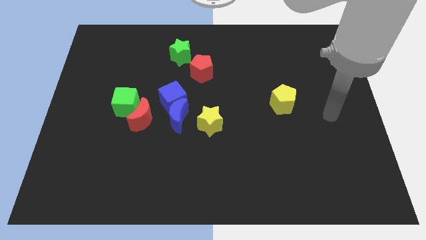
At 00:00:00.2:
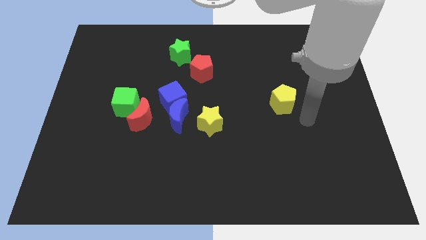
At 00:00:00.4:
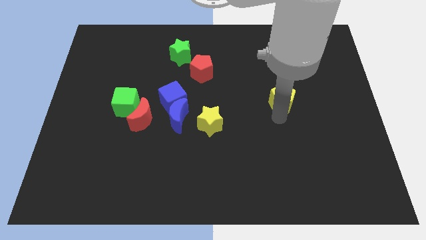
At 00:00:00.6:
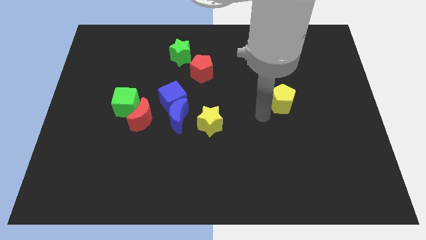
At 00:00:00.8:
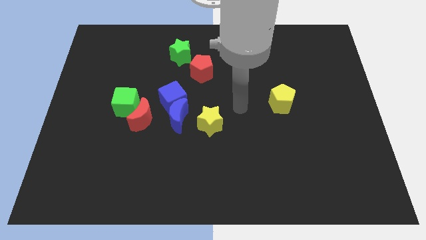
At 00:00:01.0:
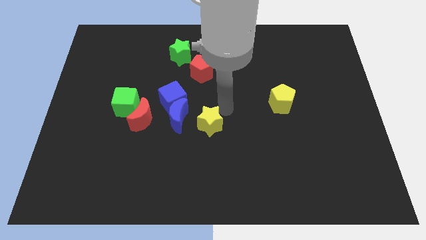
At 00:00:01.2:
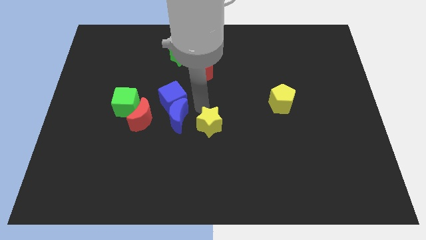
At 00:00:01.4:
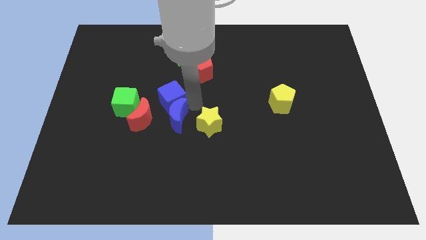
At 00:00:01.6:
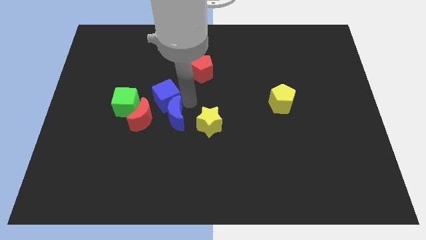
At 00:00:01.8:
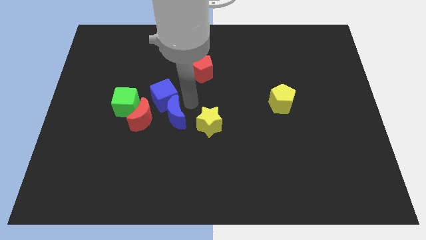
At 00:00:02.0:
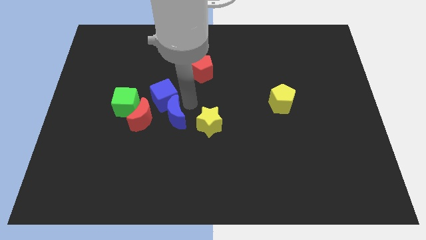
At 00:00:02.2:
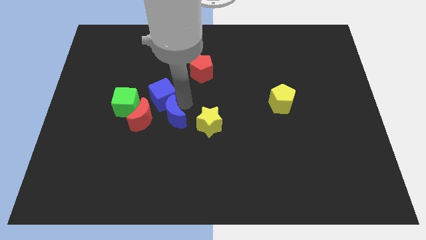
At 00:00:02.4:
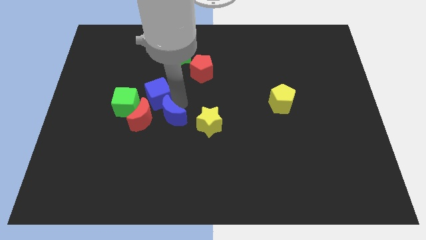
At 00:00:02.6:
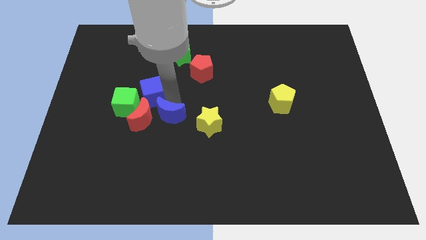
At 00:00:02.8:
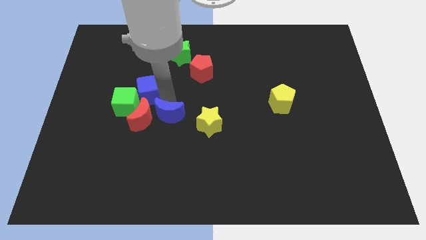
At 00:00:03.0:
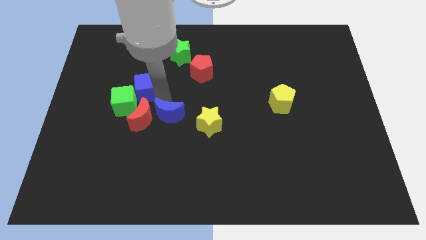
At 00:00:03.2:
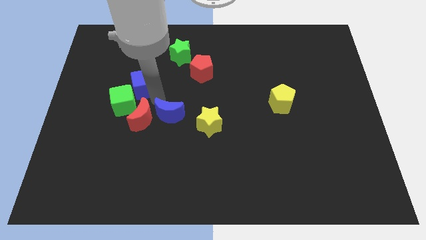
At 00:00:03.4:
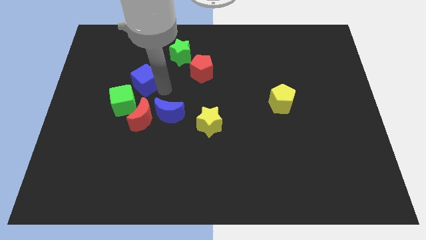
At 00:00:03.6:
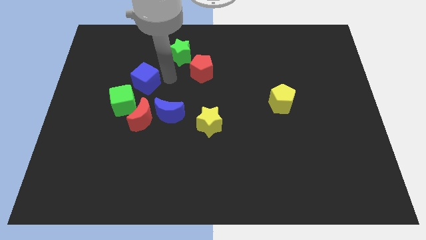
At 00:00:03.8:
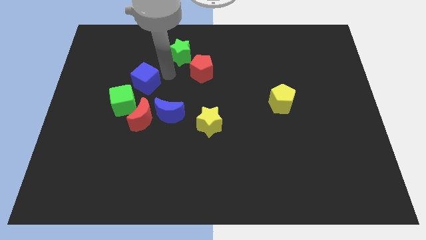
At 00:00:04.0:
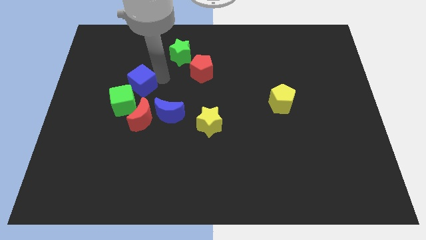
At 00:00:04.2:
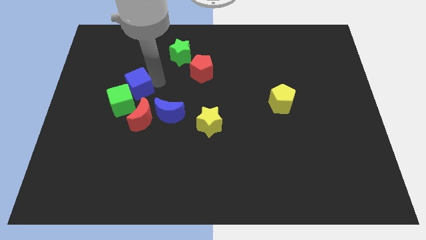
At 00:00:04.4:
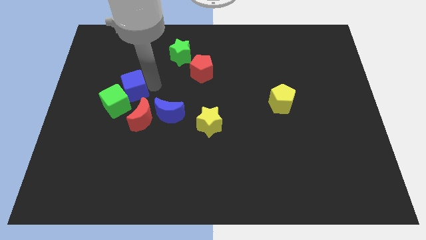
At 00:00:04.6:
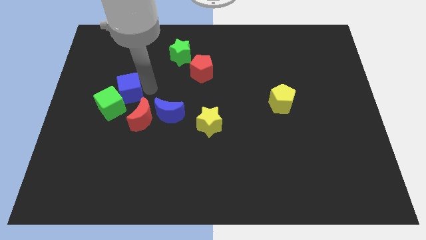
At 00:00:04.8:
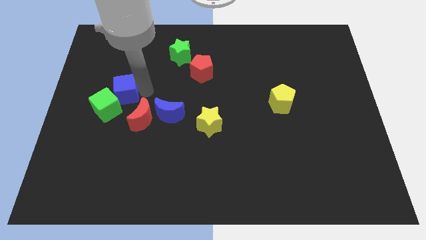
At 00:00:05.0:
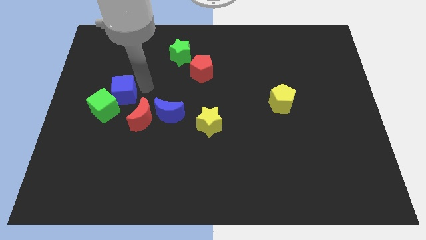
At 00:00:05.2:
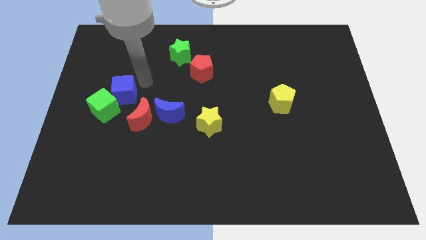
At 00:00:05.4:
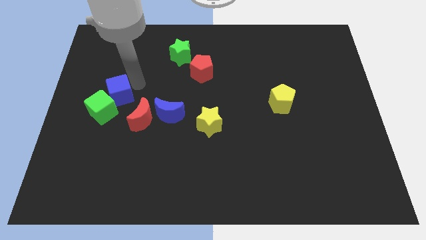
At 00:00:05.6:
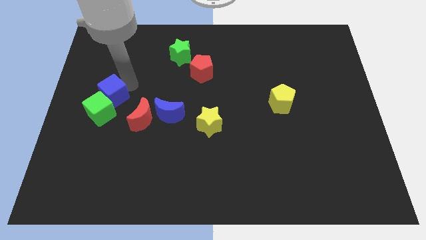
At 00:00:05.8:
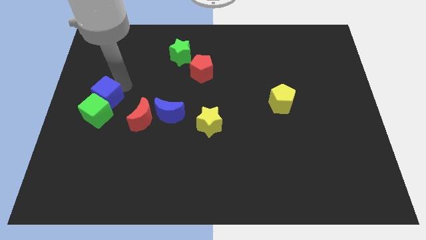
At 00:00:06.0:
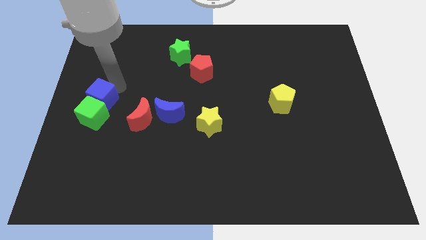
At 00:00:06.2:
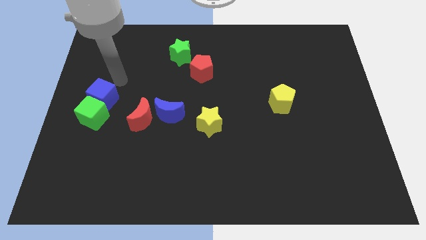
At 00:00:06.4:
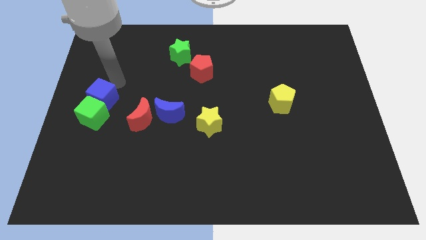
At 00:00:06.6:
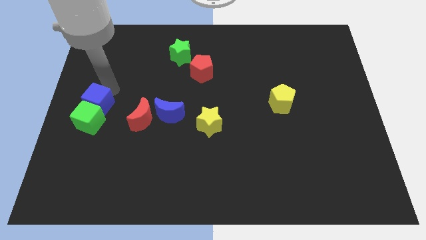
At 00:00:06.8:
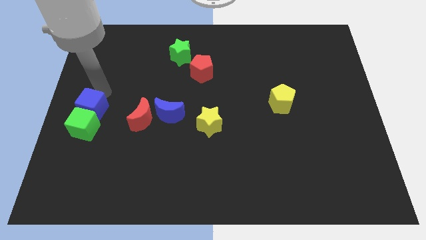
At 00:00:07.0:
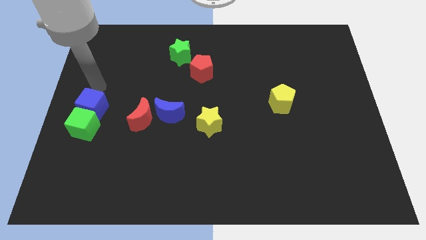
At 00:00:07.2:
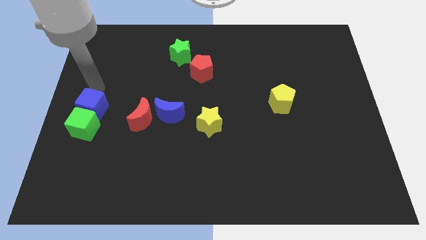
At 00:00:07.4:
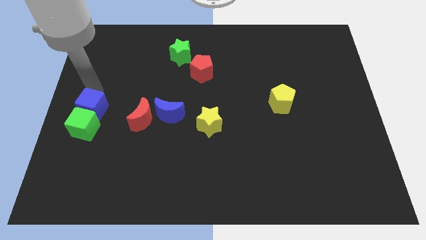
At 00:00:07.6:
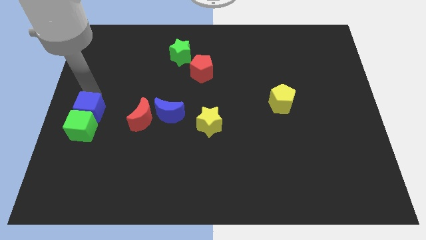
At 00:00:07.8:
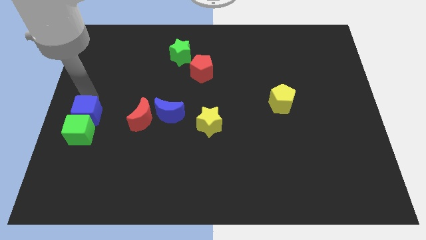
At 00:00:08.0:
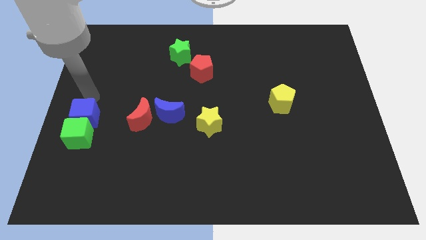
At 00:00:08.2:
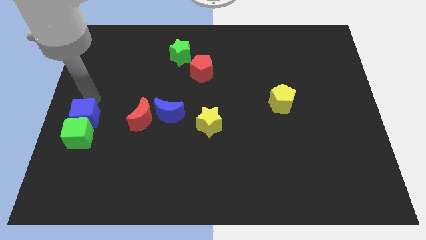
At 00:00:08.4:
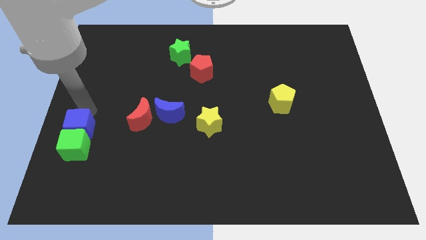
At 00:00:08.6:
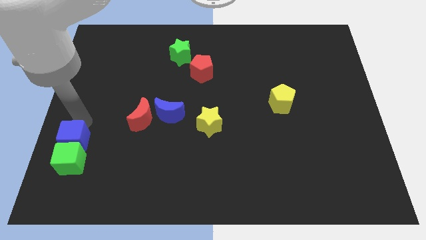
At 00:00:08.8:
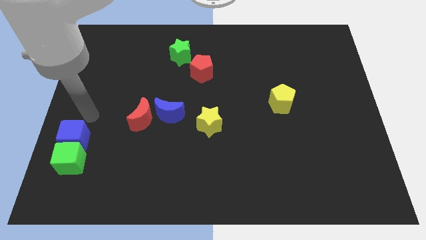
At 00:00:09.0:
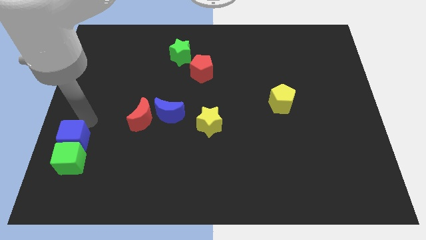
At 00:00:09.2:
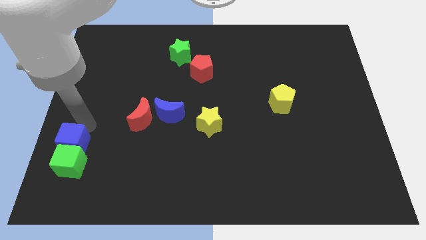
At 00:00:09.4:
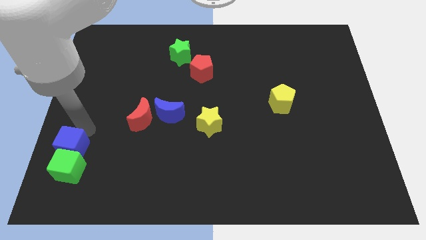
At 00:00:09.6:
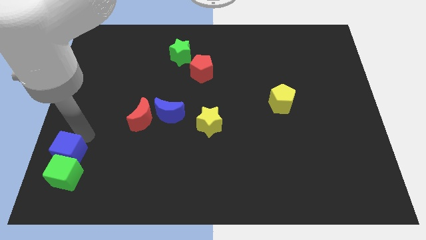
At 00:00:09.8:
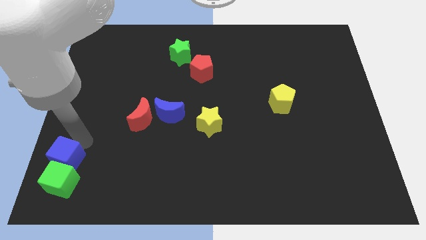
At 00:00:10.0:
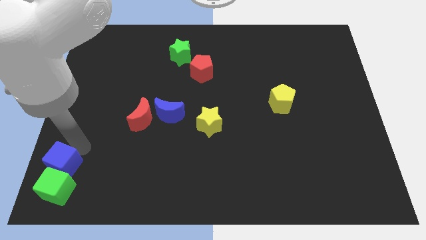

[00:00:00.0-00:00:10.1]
slide the blue cube to the lower left corner

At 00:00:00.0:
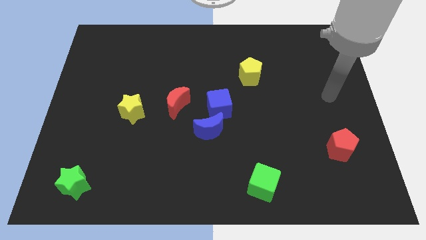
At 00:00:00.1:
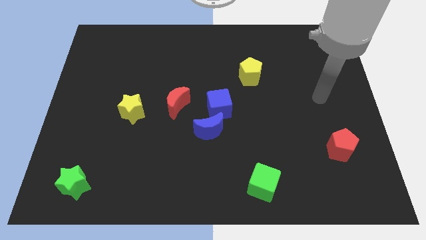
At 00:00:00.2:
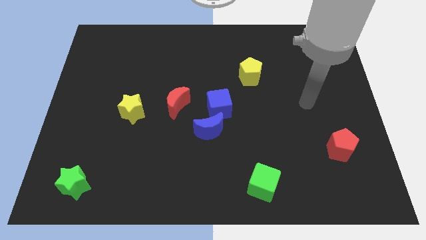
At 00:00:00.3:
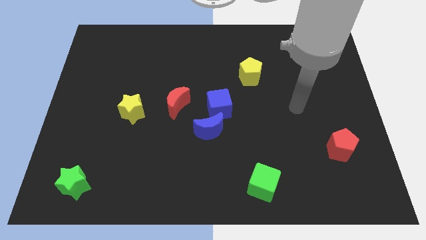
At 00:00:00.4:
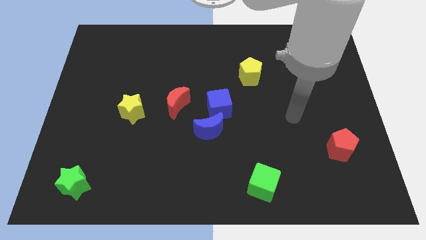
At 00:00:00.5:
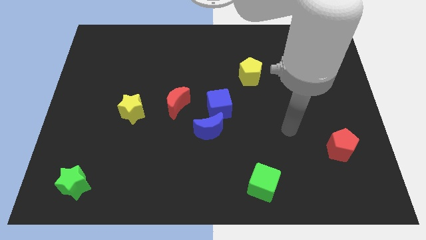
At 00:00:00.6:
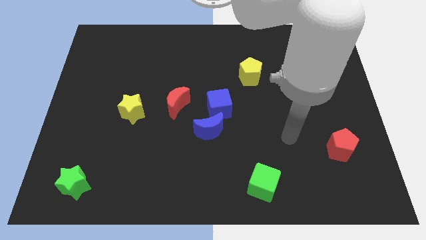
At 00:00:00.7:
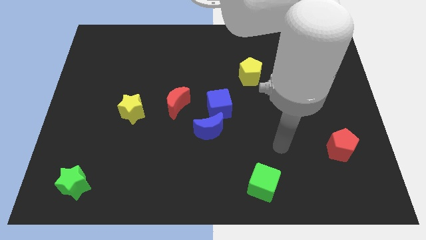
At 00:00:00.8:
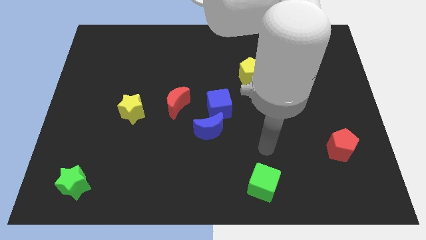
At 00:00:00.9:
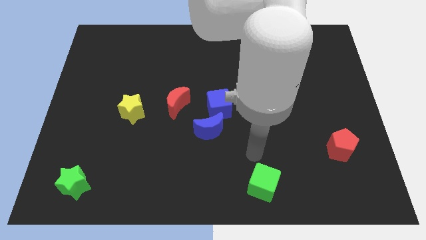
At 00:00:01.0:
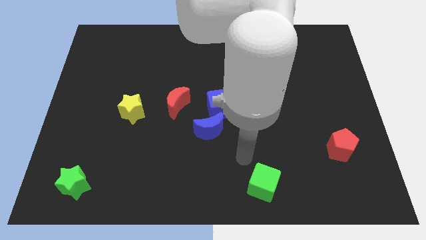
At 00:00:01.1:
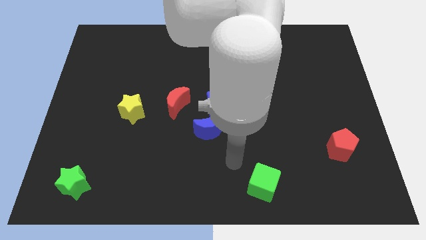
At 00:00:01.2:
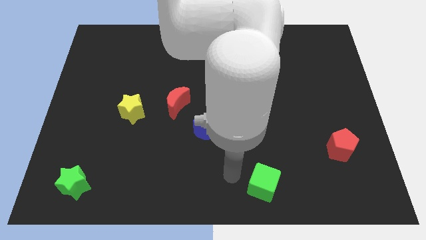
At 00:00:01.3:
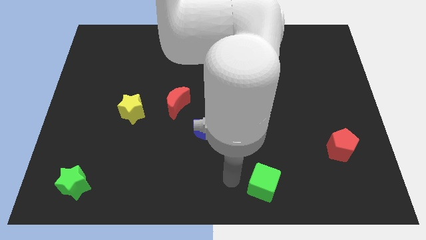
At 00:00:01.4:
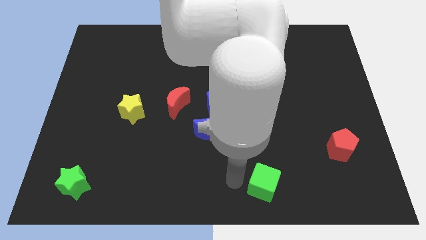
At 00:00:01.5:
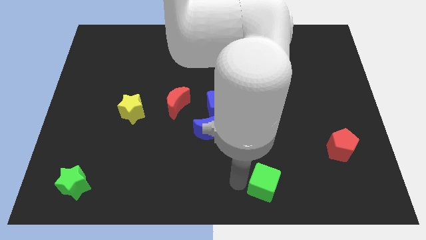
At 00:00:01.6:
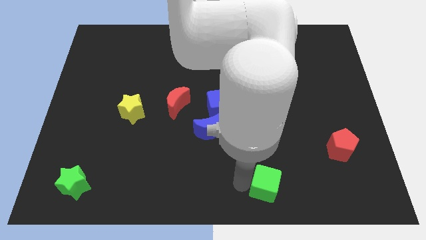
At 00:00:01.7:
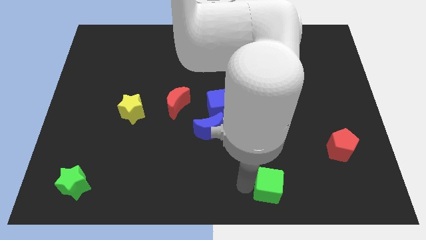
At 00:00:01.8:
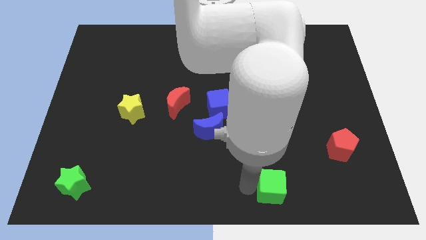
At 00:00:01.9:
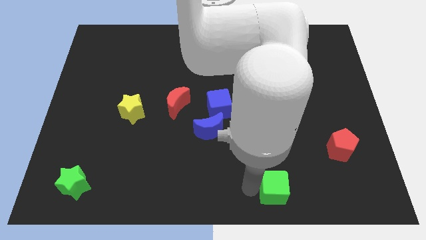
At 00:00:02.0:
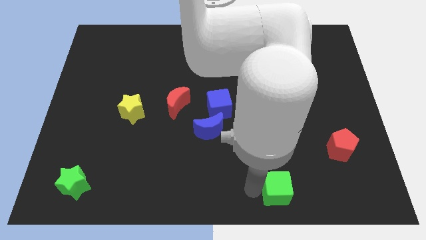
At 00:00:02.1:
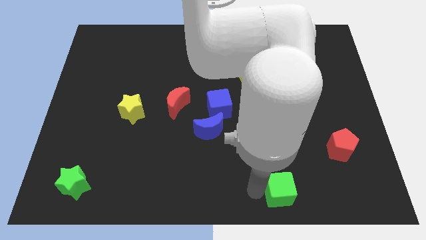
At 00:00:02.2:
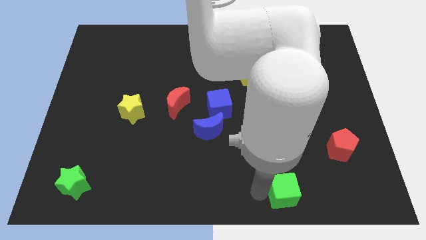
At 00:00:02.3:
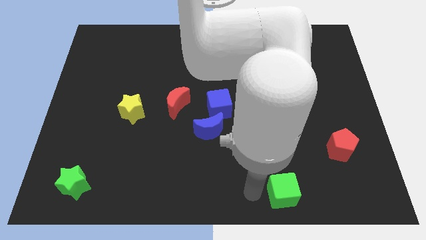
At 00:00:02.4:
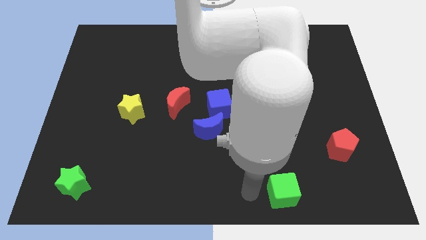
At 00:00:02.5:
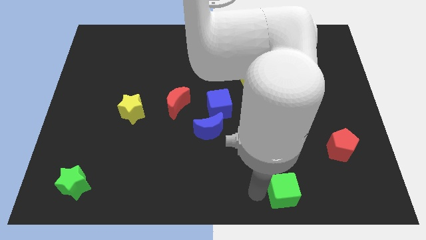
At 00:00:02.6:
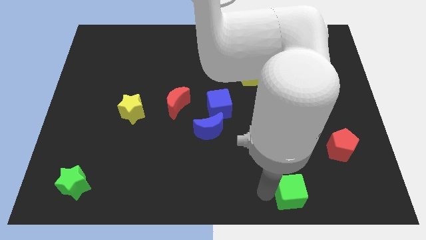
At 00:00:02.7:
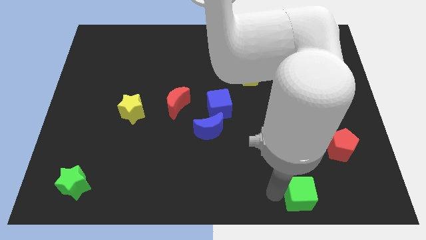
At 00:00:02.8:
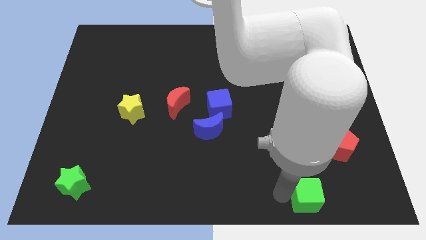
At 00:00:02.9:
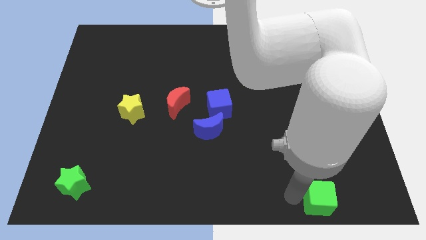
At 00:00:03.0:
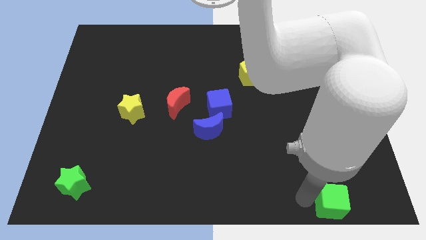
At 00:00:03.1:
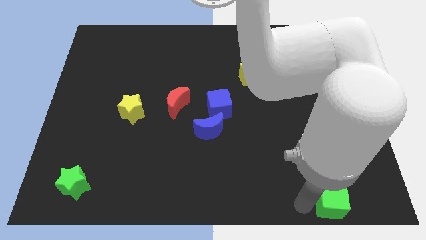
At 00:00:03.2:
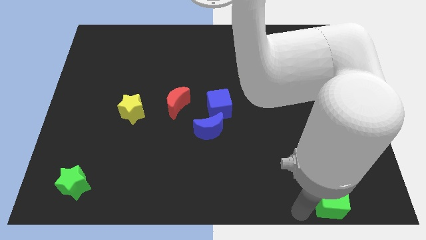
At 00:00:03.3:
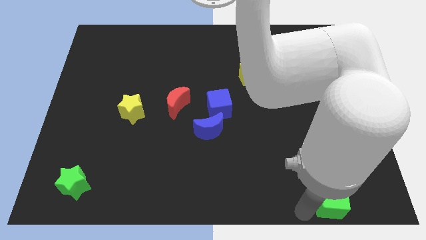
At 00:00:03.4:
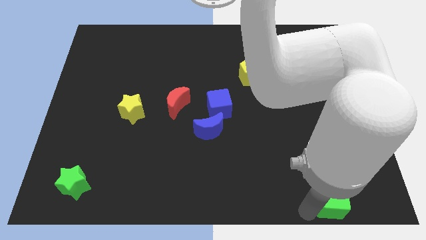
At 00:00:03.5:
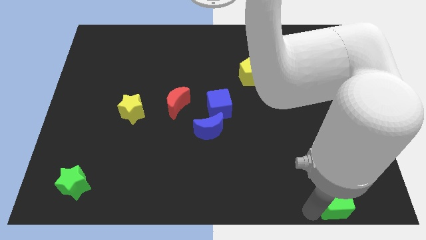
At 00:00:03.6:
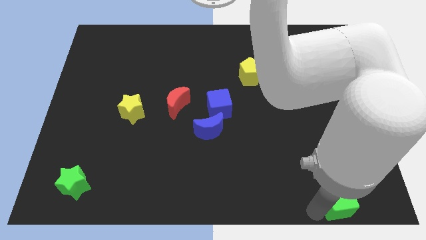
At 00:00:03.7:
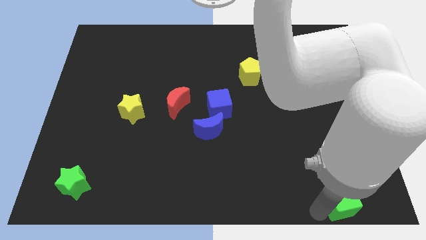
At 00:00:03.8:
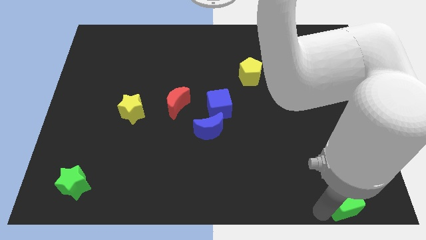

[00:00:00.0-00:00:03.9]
move the green cube to the bottom right
